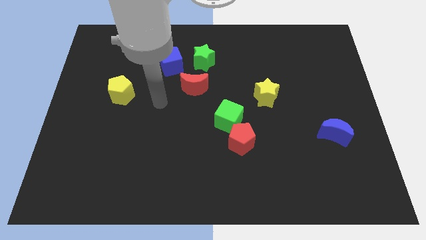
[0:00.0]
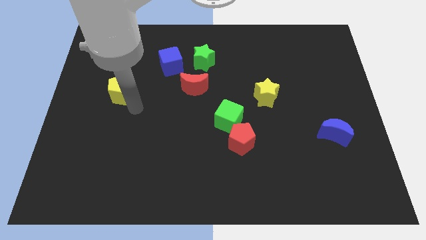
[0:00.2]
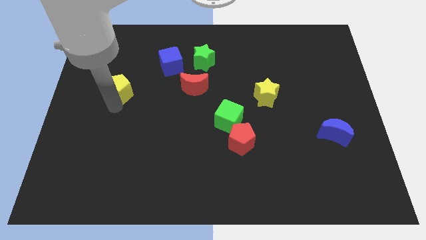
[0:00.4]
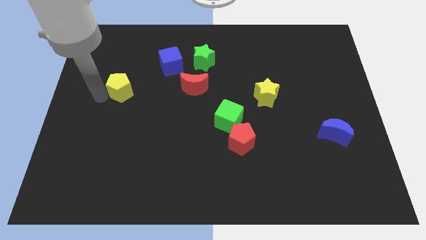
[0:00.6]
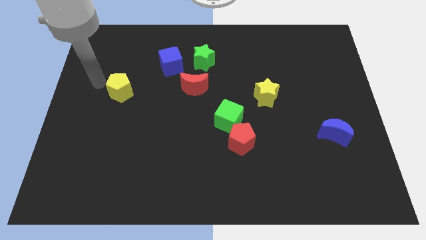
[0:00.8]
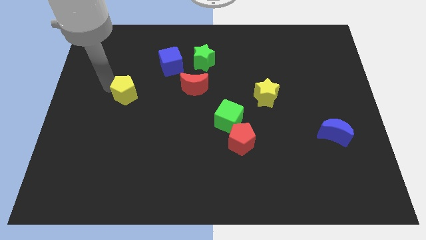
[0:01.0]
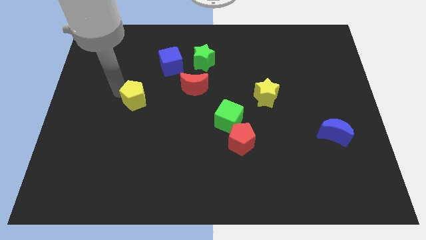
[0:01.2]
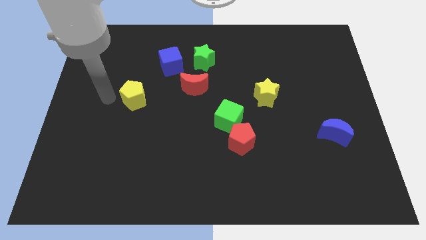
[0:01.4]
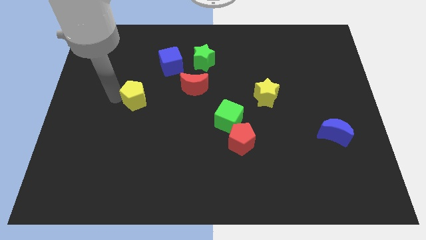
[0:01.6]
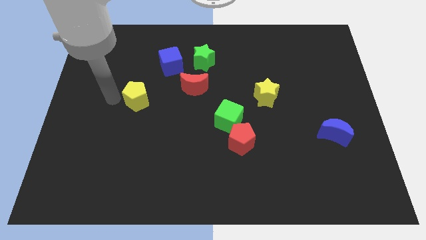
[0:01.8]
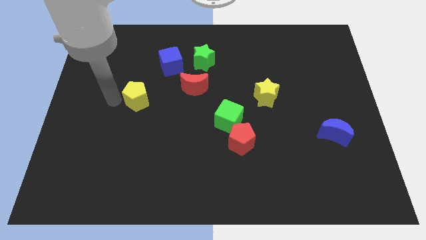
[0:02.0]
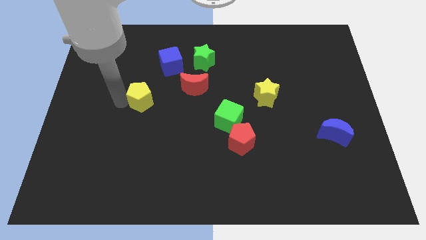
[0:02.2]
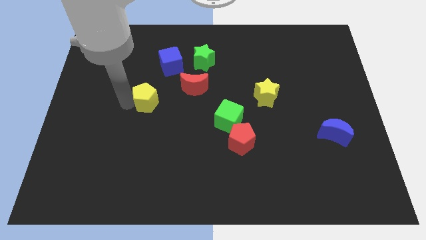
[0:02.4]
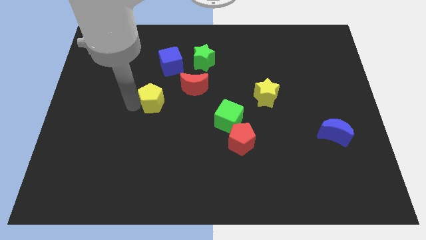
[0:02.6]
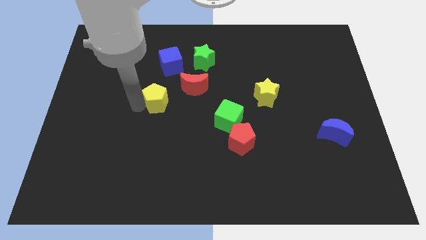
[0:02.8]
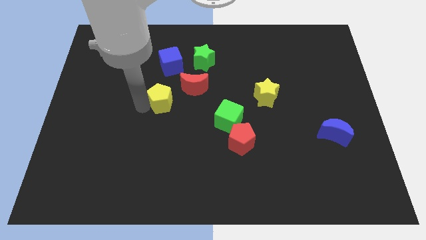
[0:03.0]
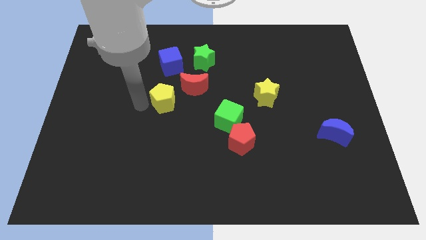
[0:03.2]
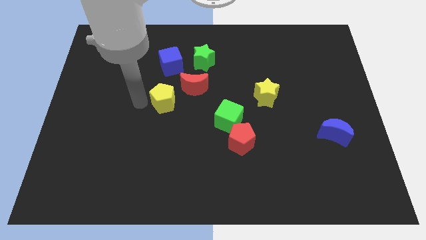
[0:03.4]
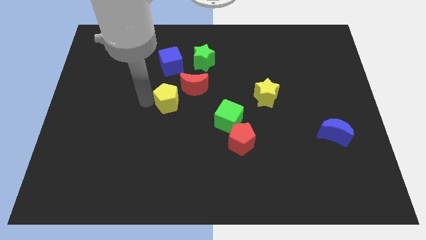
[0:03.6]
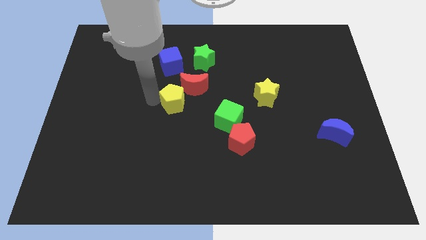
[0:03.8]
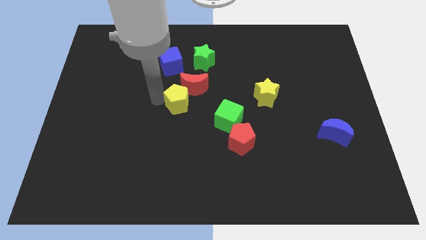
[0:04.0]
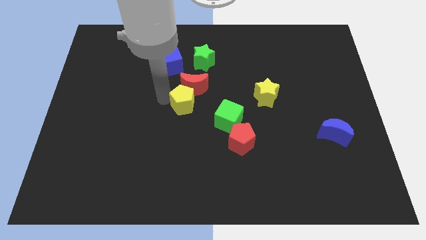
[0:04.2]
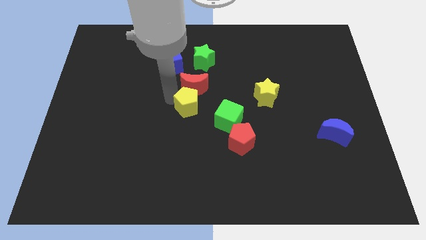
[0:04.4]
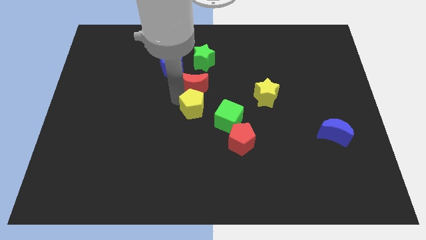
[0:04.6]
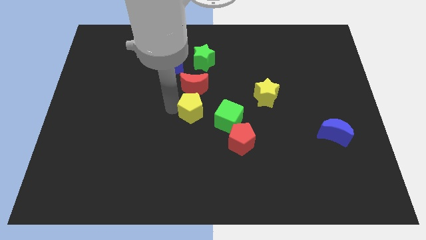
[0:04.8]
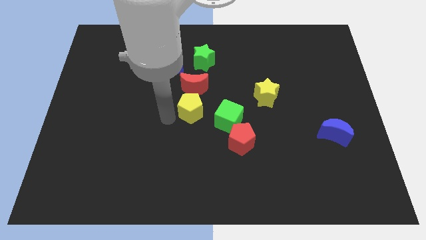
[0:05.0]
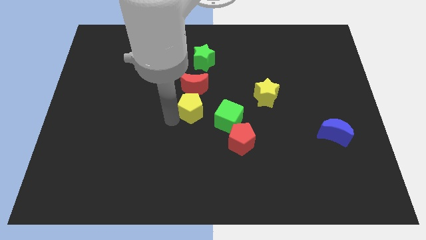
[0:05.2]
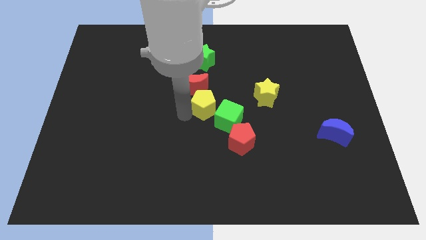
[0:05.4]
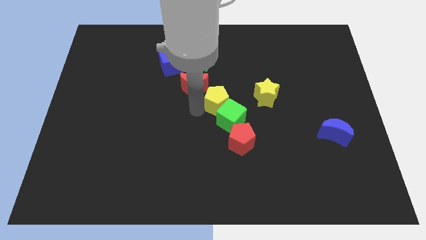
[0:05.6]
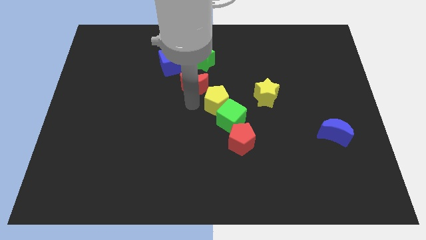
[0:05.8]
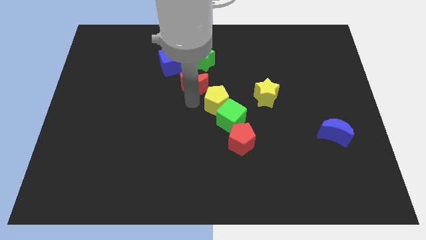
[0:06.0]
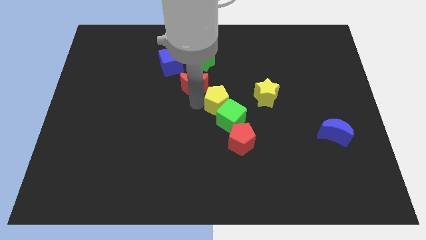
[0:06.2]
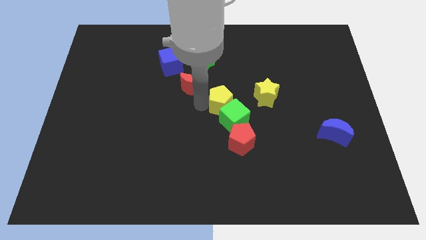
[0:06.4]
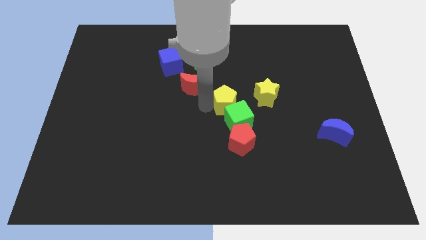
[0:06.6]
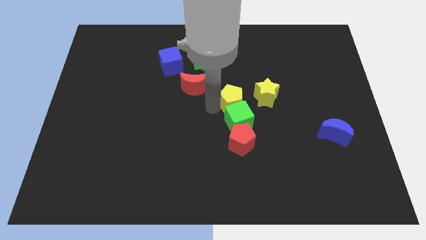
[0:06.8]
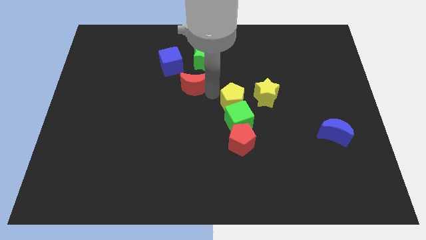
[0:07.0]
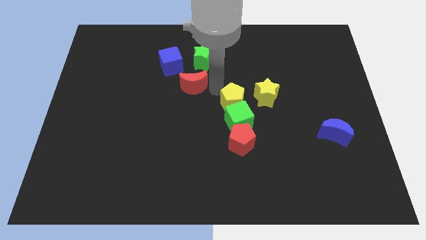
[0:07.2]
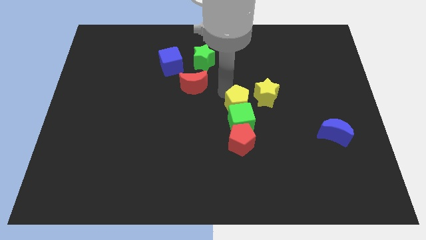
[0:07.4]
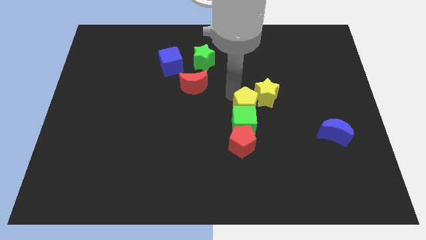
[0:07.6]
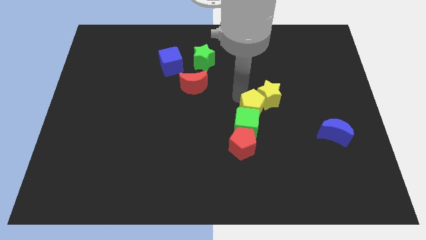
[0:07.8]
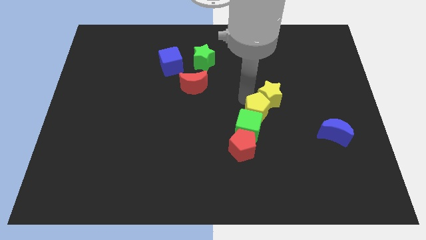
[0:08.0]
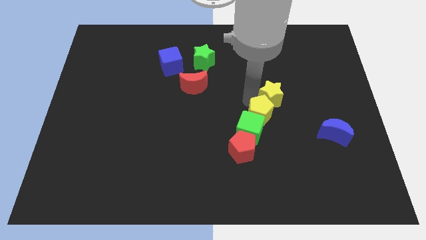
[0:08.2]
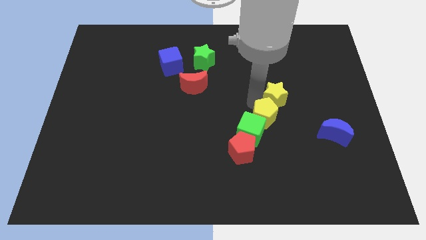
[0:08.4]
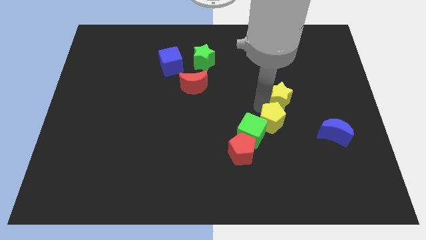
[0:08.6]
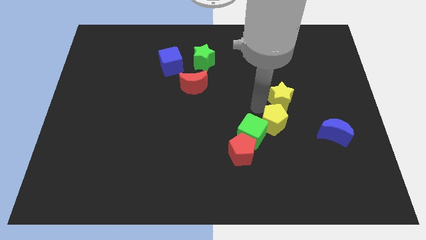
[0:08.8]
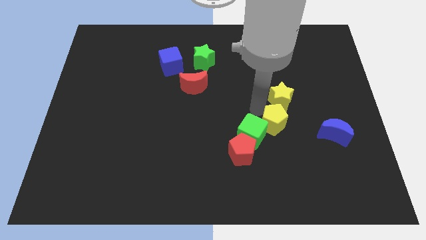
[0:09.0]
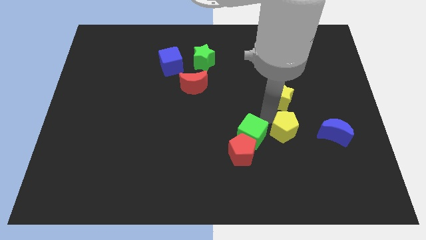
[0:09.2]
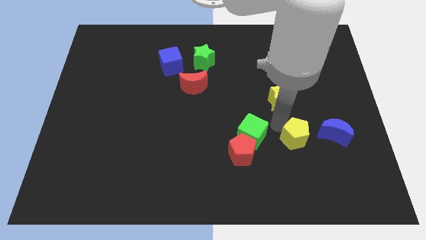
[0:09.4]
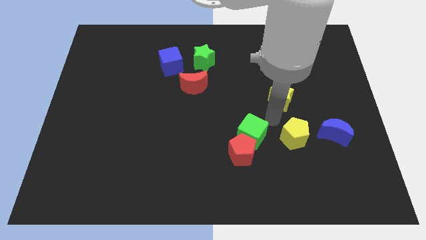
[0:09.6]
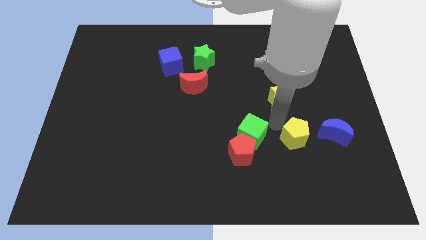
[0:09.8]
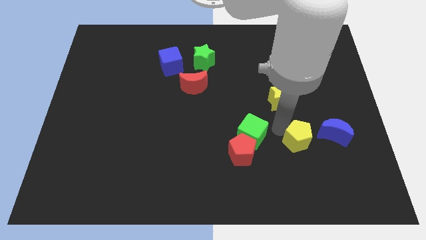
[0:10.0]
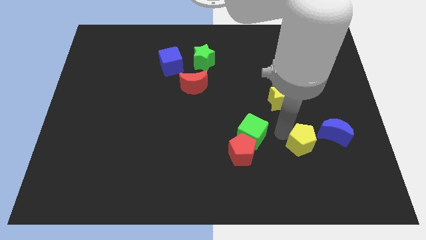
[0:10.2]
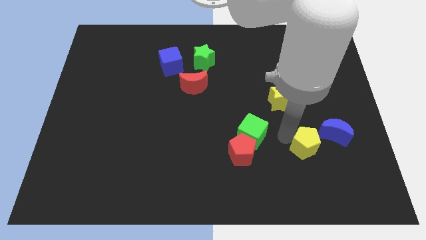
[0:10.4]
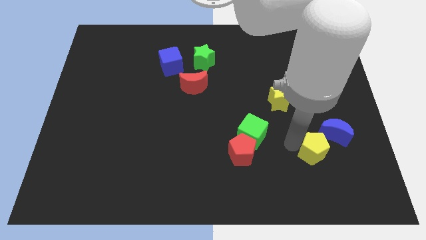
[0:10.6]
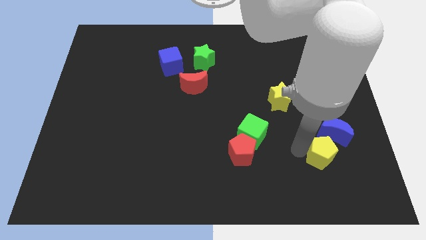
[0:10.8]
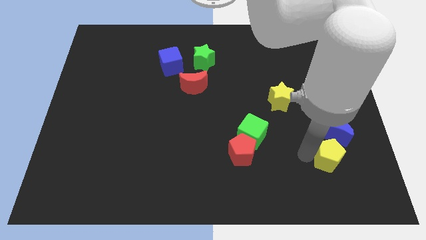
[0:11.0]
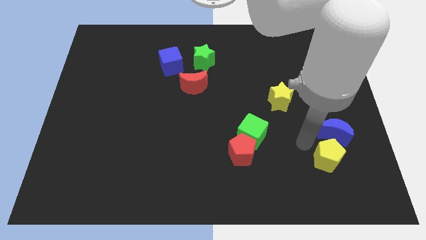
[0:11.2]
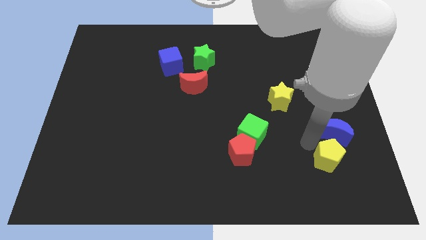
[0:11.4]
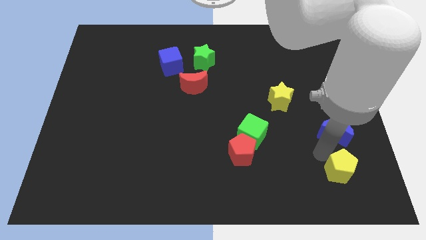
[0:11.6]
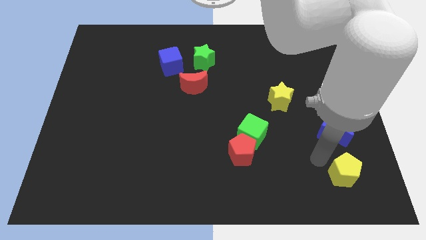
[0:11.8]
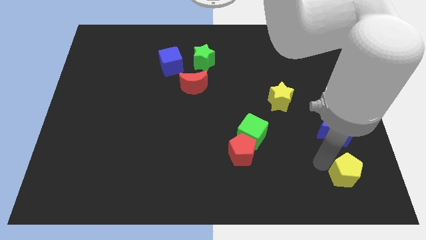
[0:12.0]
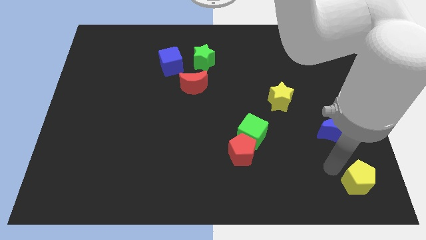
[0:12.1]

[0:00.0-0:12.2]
move the yellow pentagon to the bottom right
